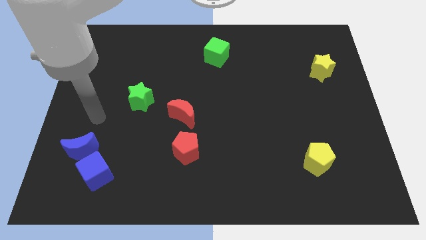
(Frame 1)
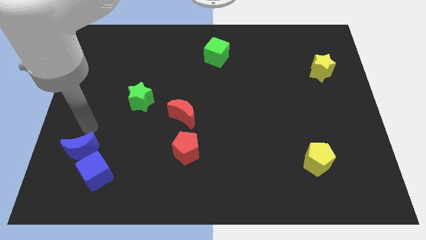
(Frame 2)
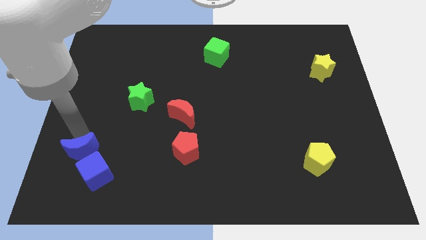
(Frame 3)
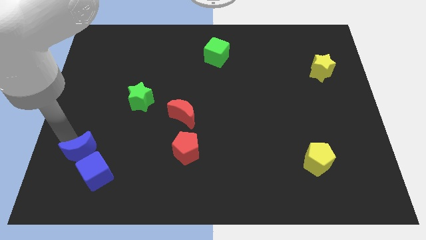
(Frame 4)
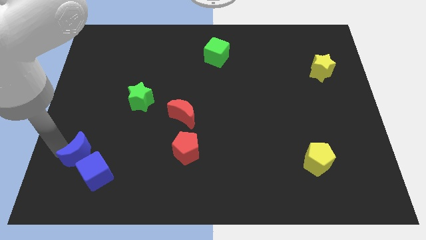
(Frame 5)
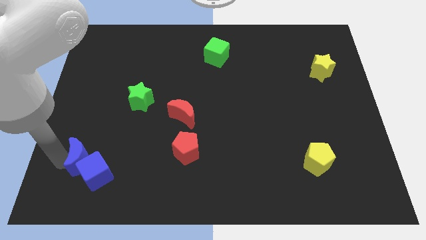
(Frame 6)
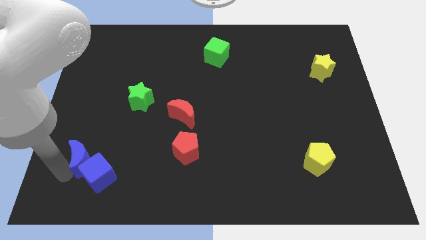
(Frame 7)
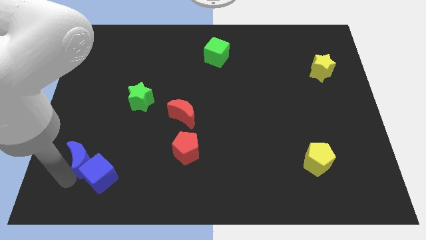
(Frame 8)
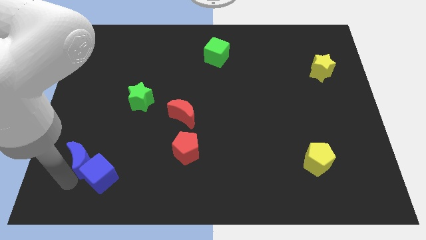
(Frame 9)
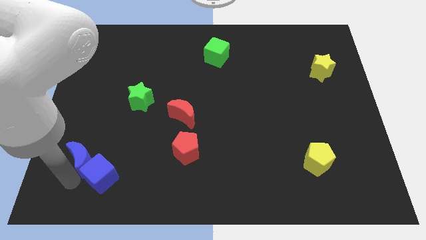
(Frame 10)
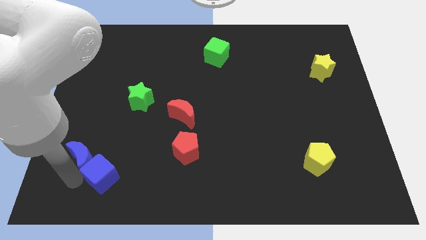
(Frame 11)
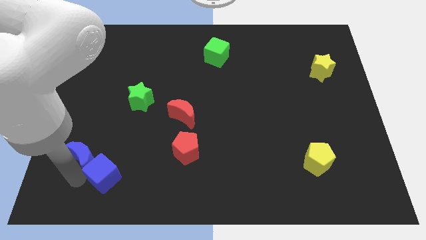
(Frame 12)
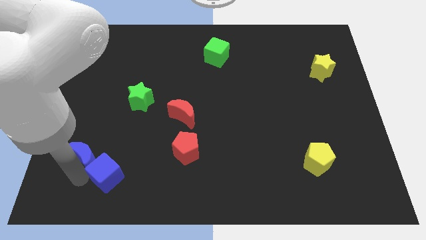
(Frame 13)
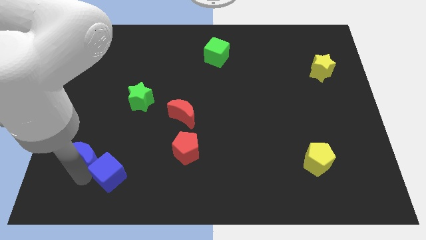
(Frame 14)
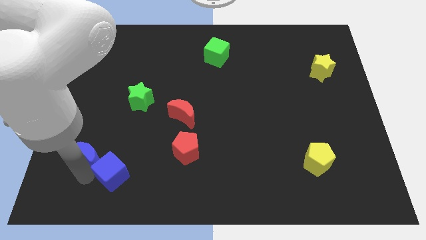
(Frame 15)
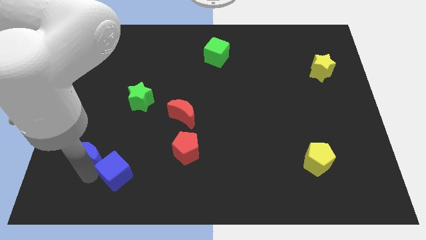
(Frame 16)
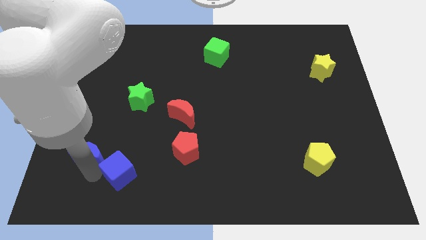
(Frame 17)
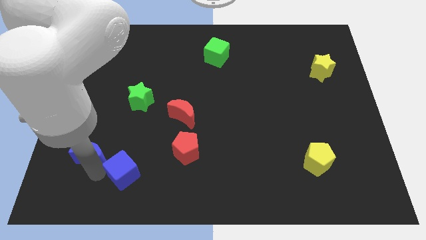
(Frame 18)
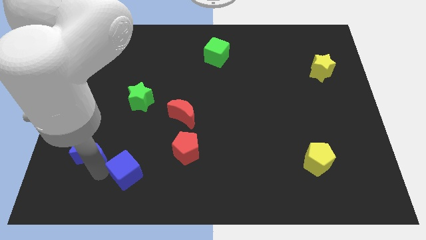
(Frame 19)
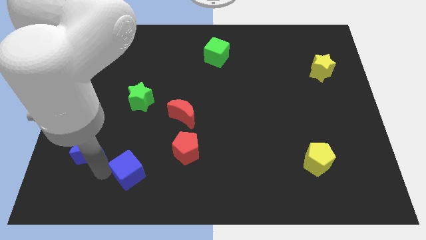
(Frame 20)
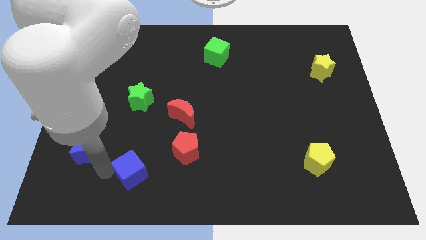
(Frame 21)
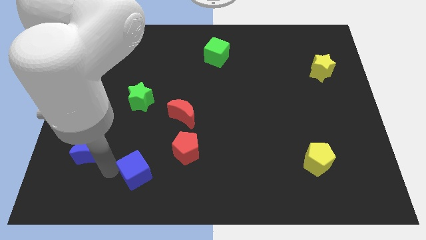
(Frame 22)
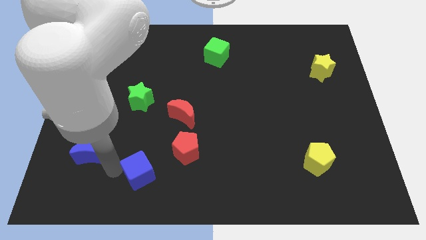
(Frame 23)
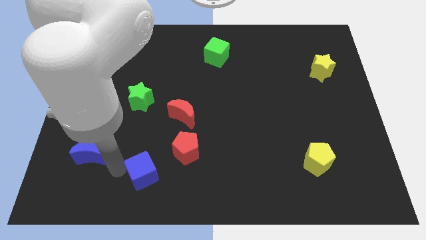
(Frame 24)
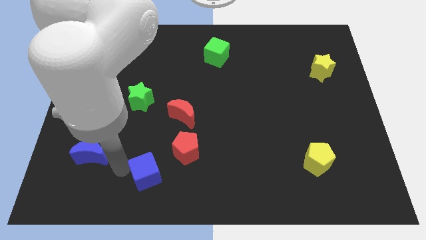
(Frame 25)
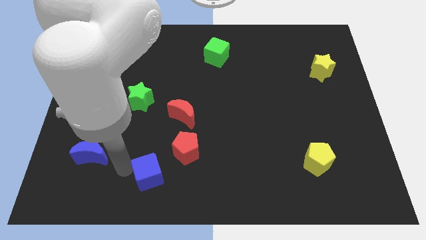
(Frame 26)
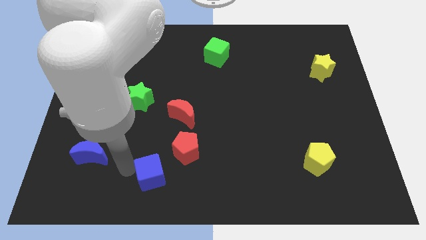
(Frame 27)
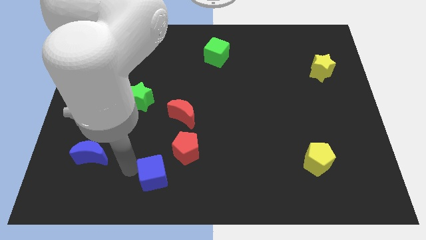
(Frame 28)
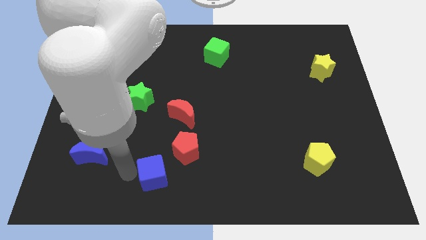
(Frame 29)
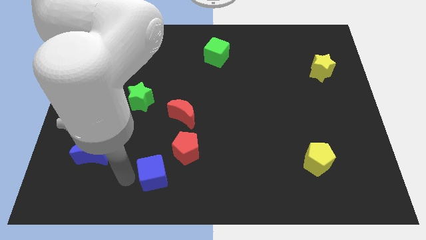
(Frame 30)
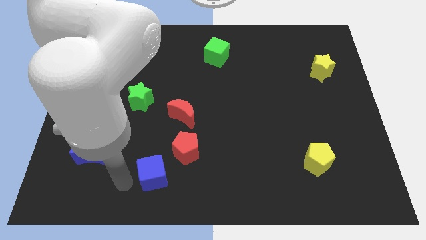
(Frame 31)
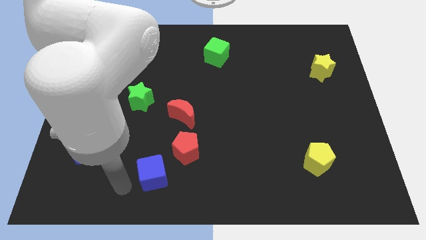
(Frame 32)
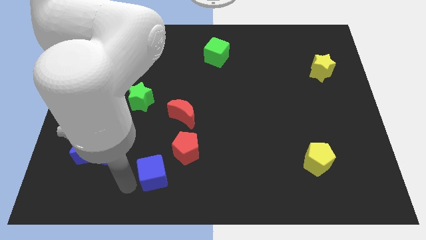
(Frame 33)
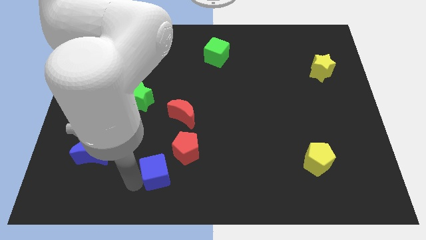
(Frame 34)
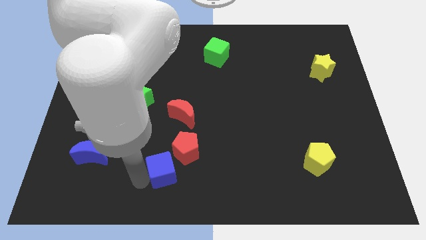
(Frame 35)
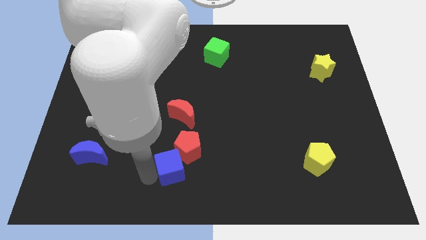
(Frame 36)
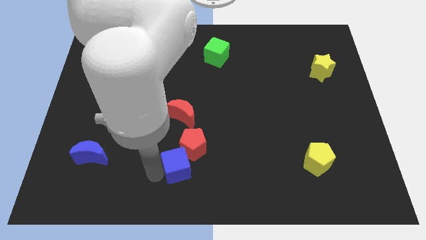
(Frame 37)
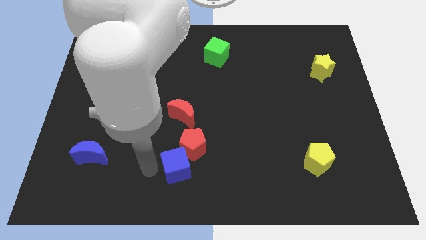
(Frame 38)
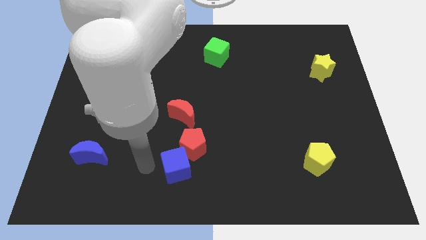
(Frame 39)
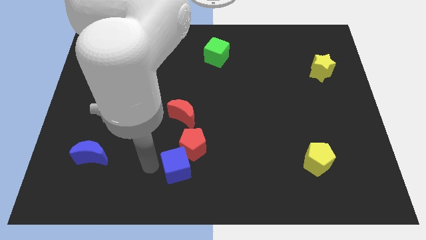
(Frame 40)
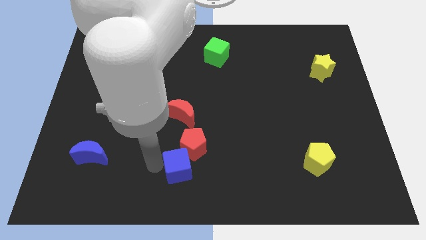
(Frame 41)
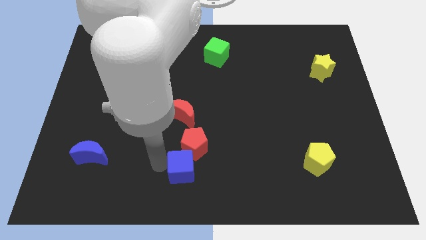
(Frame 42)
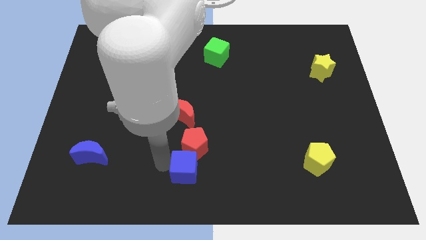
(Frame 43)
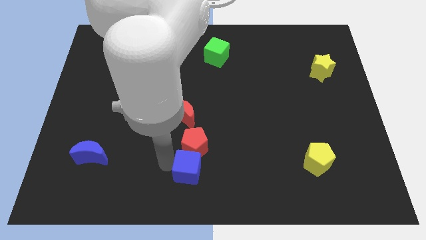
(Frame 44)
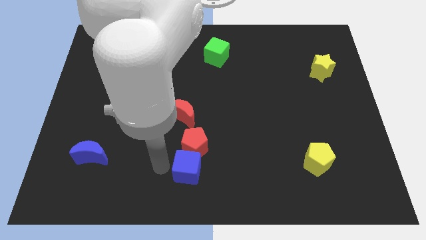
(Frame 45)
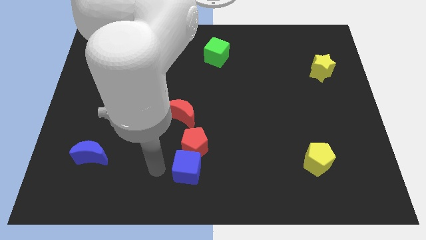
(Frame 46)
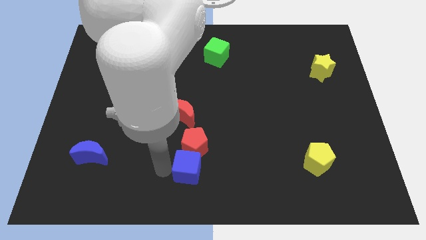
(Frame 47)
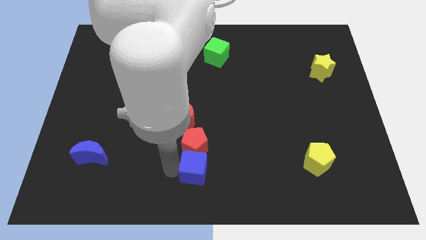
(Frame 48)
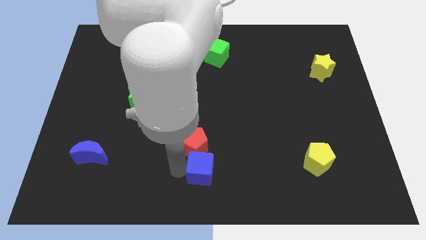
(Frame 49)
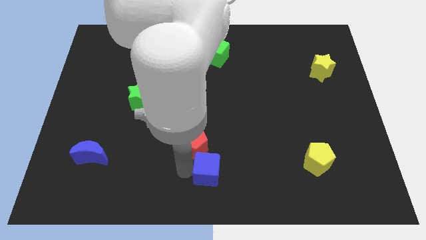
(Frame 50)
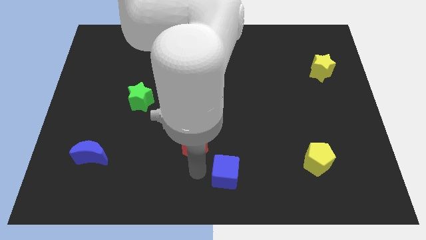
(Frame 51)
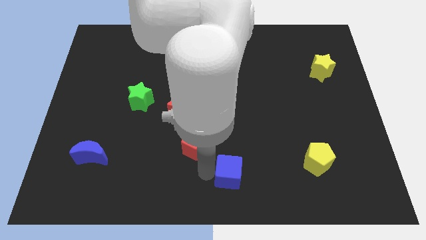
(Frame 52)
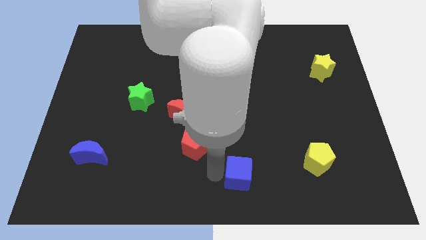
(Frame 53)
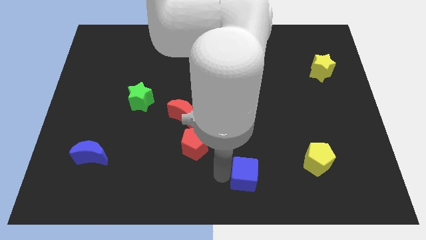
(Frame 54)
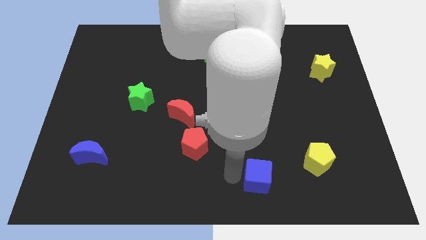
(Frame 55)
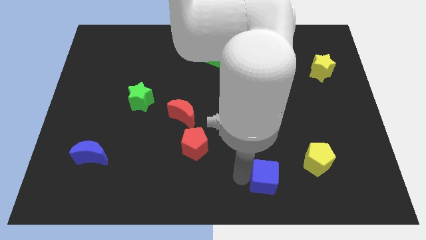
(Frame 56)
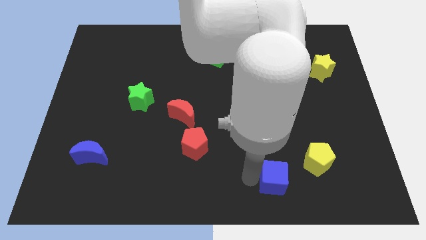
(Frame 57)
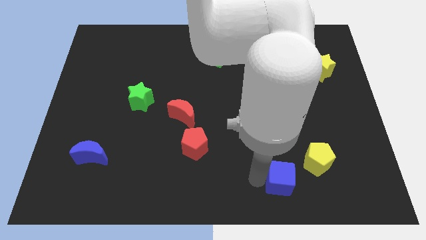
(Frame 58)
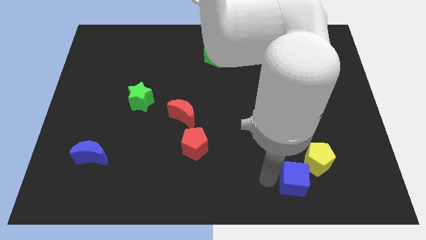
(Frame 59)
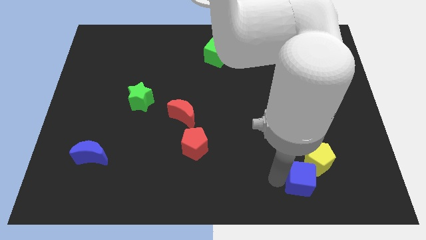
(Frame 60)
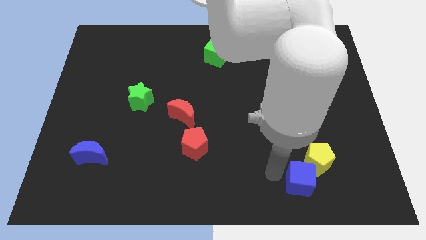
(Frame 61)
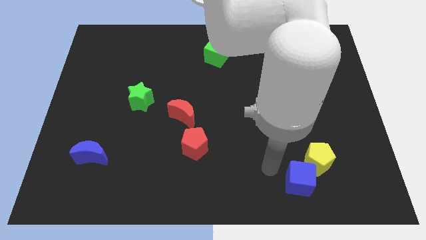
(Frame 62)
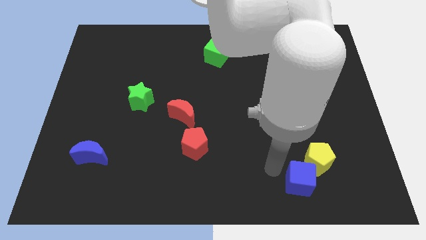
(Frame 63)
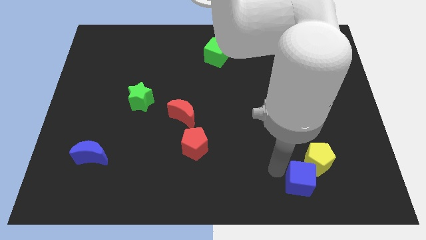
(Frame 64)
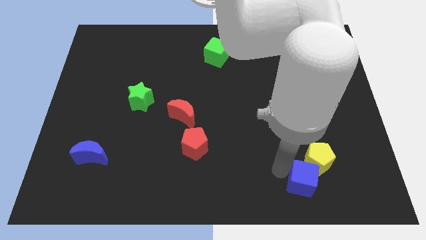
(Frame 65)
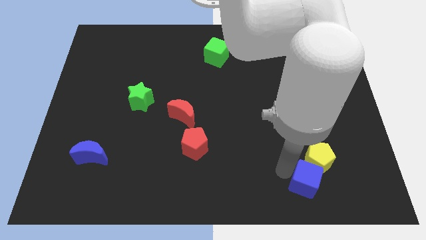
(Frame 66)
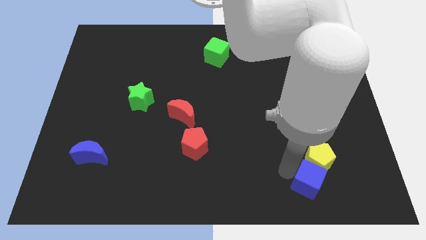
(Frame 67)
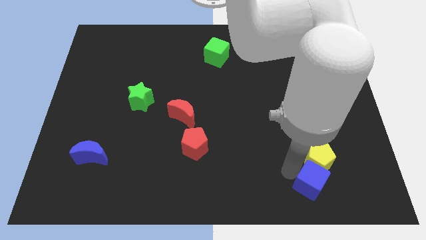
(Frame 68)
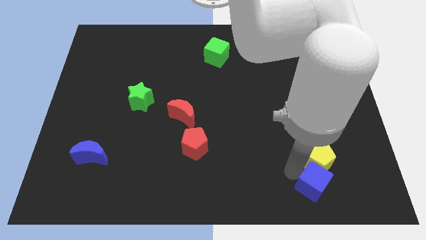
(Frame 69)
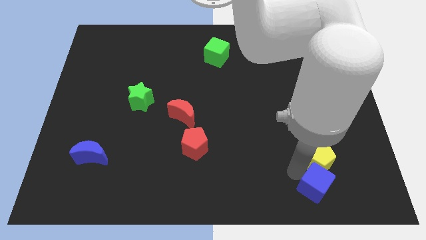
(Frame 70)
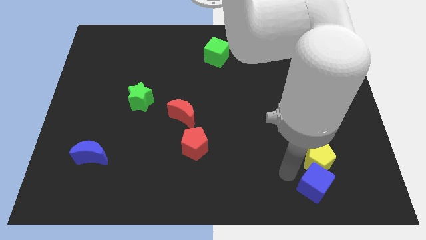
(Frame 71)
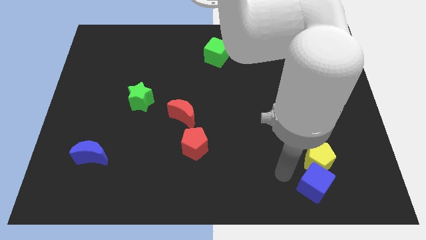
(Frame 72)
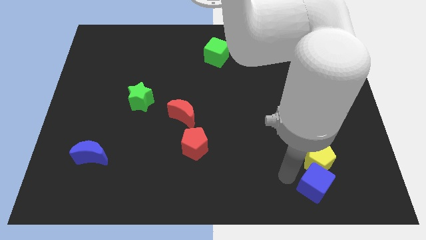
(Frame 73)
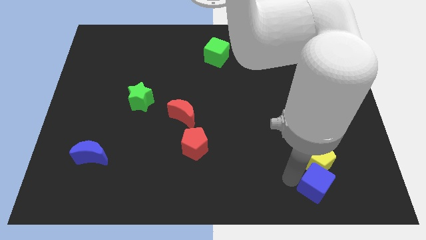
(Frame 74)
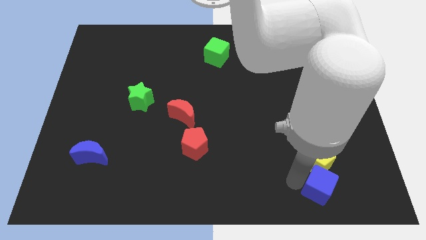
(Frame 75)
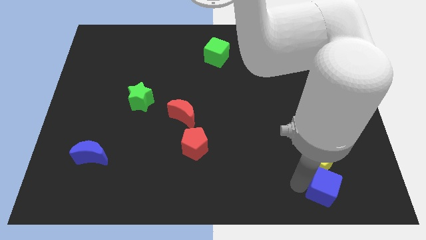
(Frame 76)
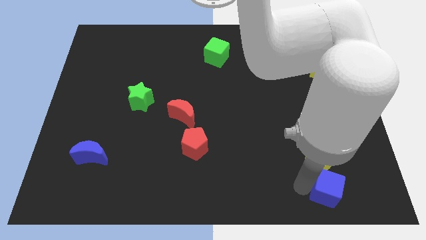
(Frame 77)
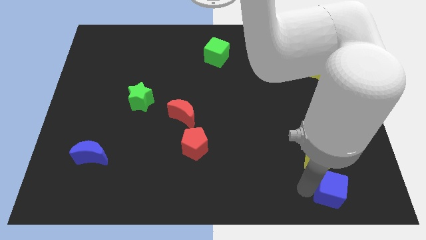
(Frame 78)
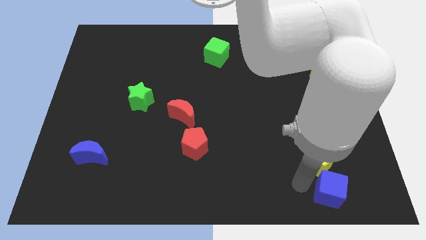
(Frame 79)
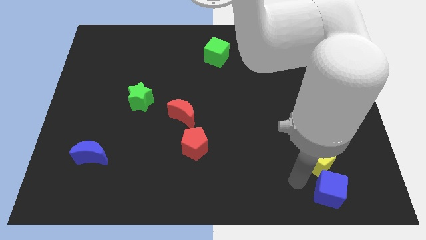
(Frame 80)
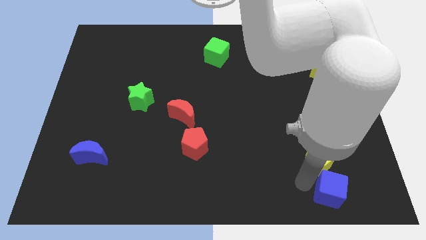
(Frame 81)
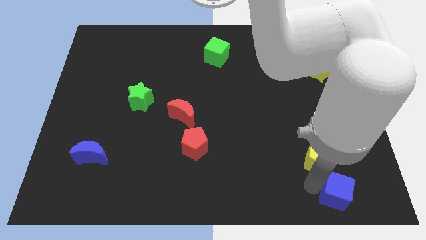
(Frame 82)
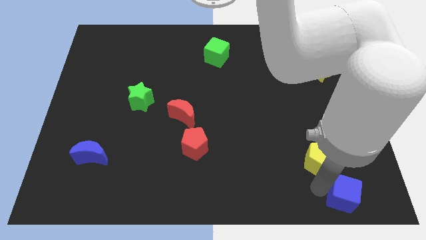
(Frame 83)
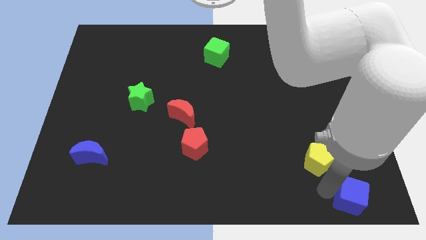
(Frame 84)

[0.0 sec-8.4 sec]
put the blue cube to the lower right corner
